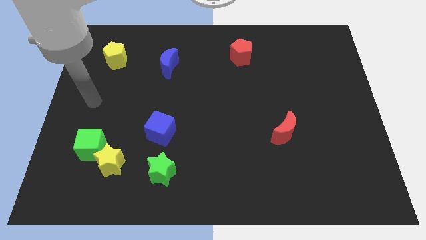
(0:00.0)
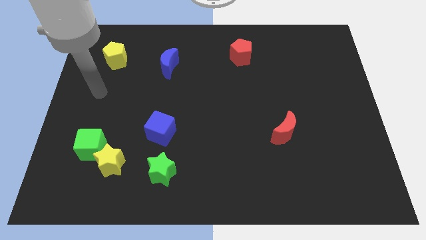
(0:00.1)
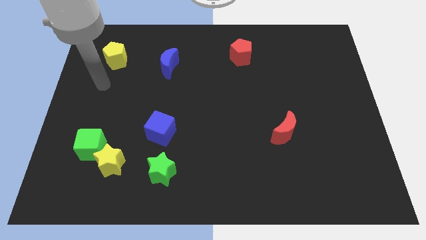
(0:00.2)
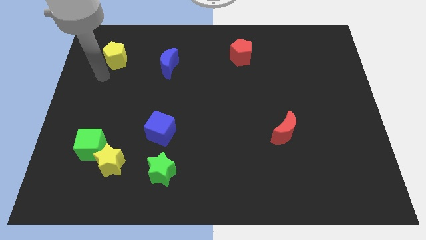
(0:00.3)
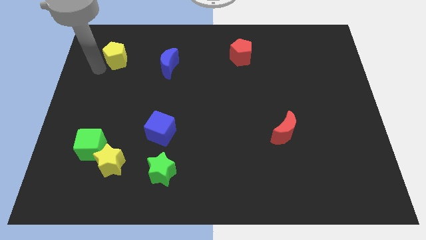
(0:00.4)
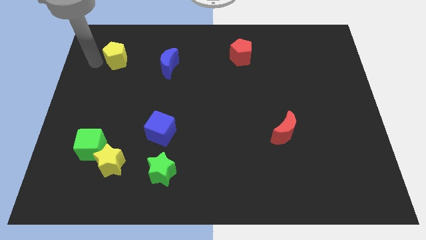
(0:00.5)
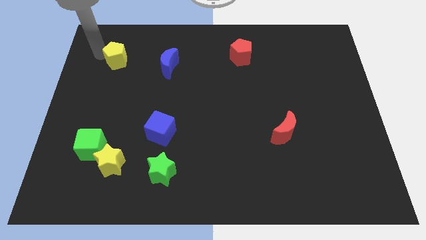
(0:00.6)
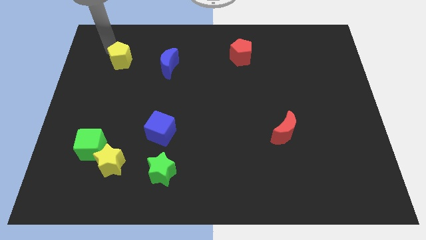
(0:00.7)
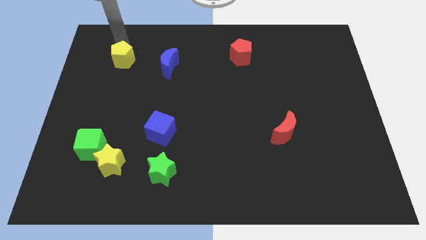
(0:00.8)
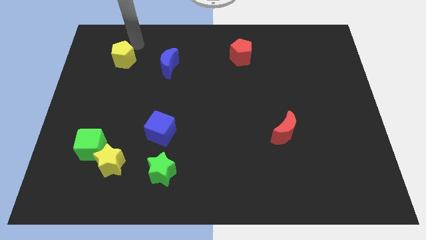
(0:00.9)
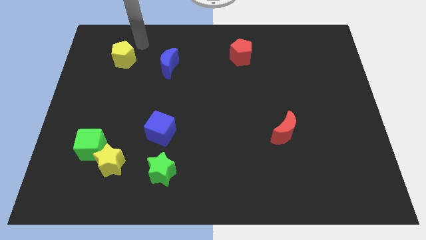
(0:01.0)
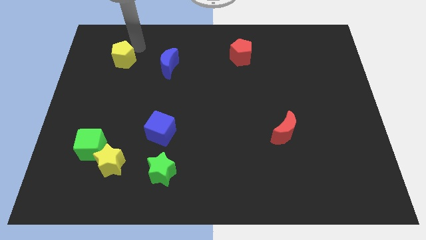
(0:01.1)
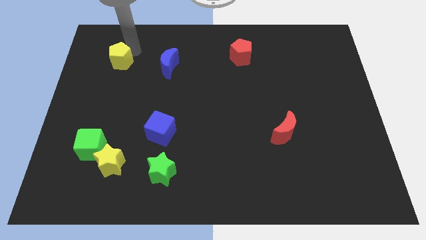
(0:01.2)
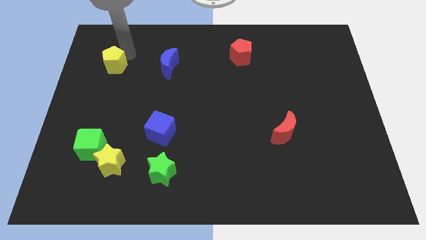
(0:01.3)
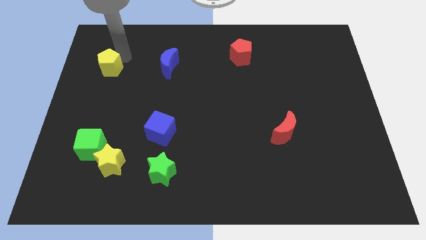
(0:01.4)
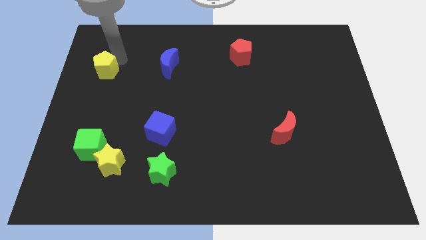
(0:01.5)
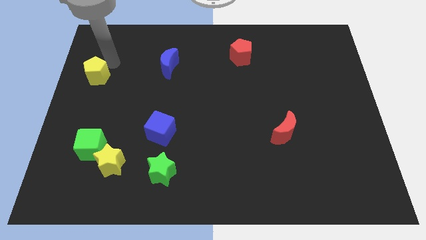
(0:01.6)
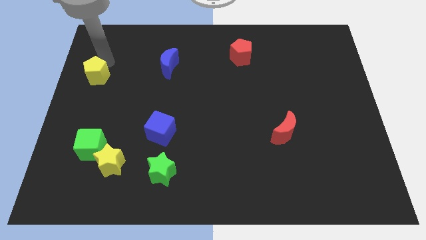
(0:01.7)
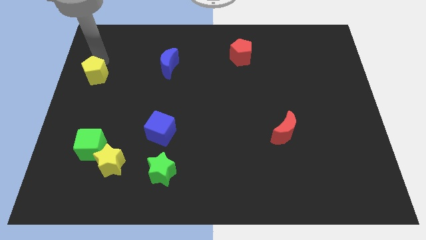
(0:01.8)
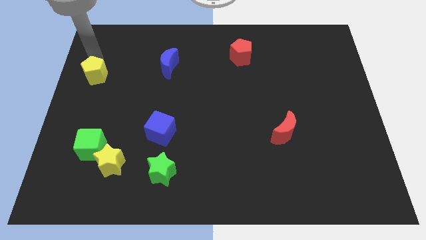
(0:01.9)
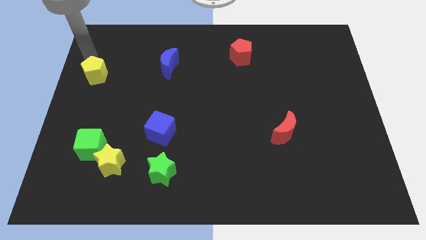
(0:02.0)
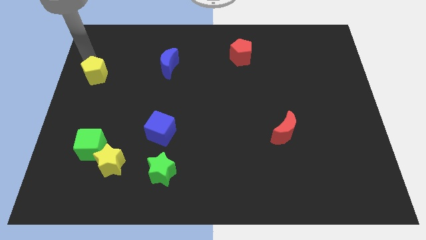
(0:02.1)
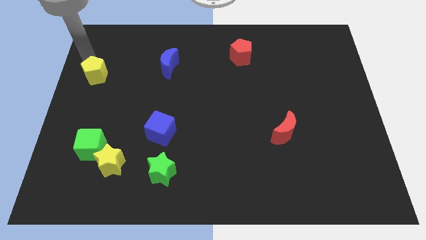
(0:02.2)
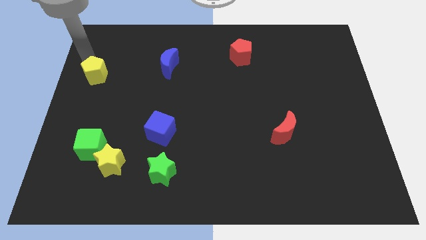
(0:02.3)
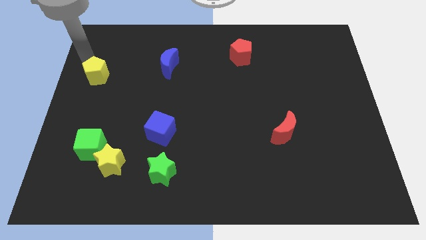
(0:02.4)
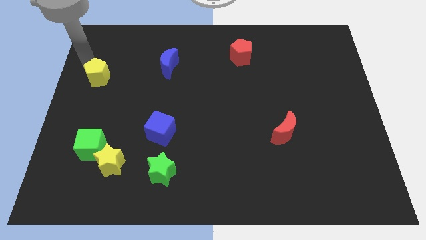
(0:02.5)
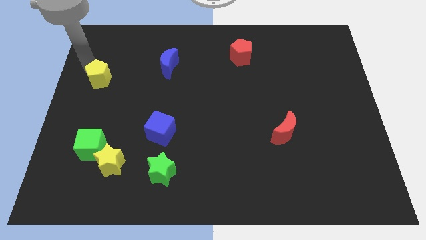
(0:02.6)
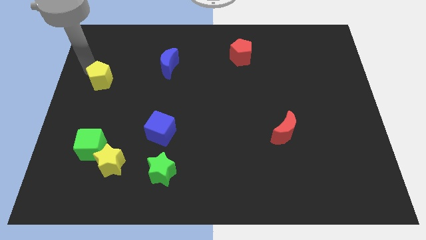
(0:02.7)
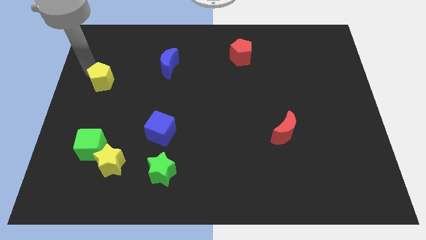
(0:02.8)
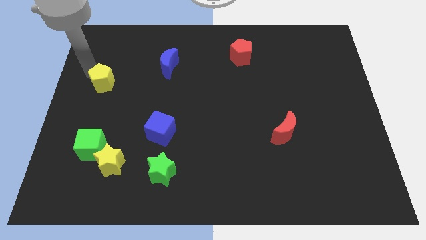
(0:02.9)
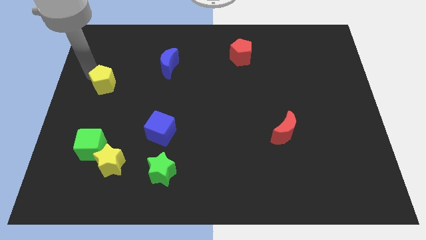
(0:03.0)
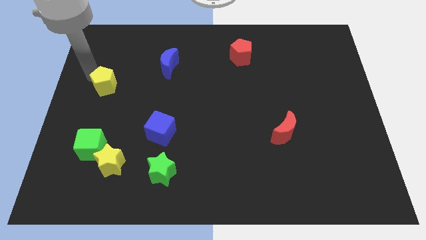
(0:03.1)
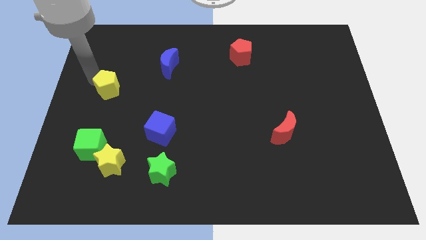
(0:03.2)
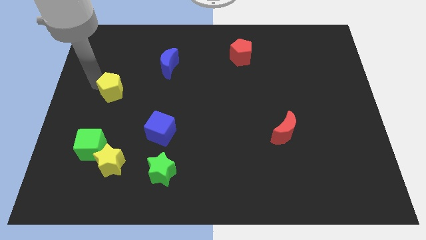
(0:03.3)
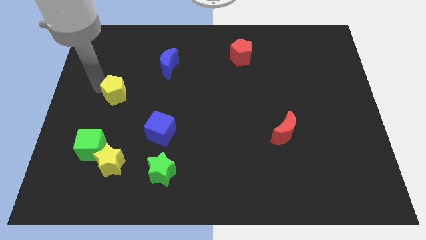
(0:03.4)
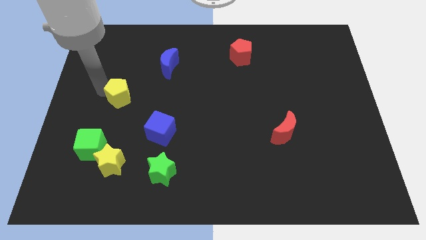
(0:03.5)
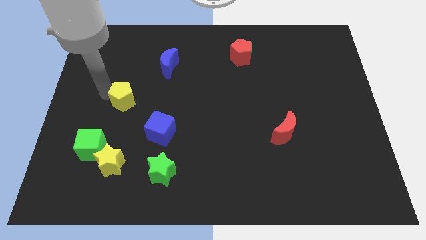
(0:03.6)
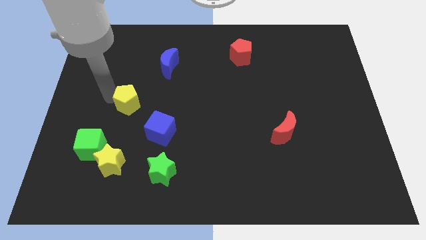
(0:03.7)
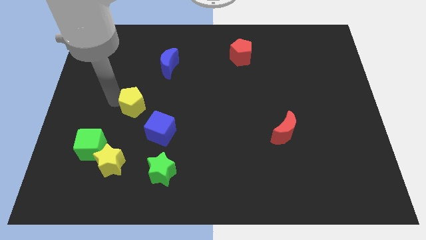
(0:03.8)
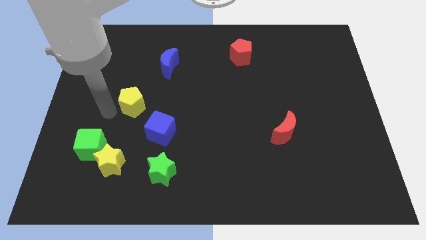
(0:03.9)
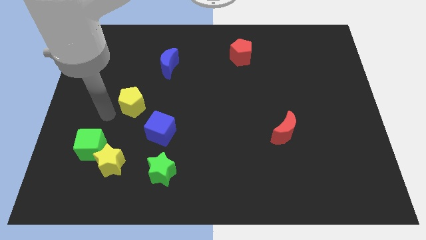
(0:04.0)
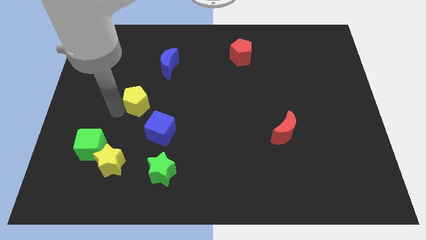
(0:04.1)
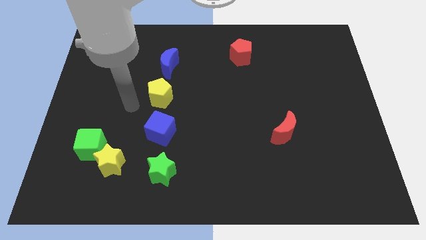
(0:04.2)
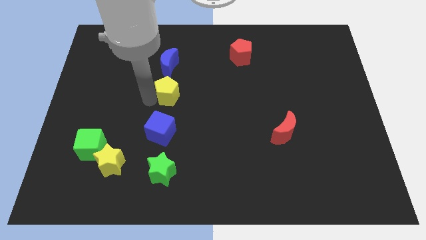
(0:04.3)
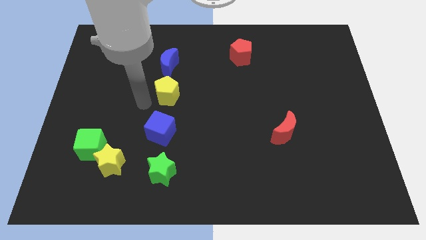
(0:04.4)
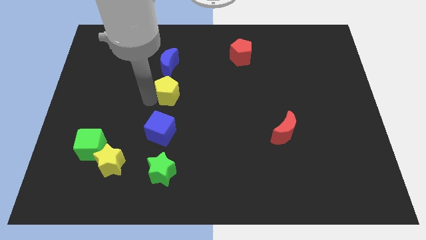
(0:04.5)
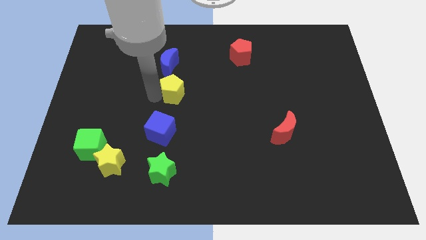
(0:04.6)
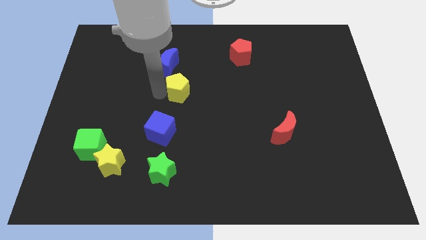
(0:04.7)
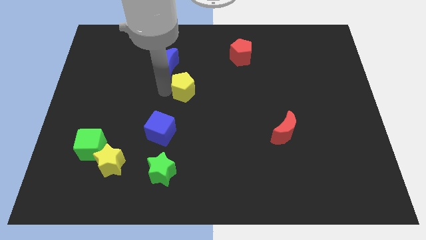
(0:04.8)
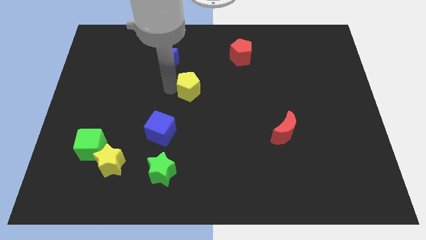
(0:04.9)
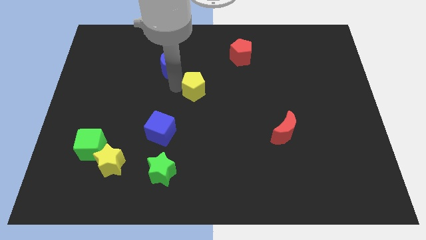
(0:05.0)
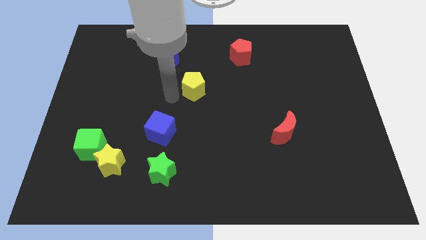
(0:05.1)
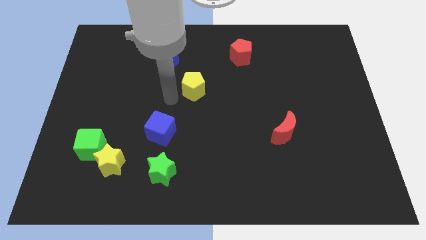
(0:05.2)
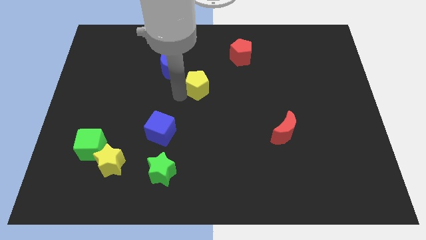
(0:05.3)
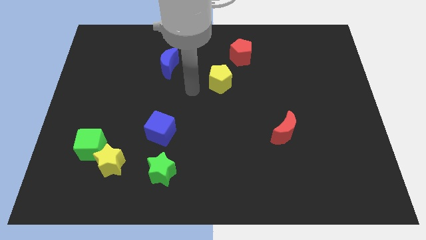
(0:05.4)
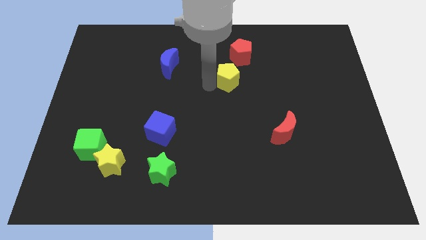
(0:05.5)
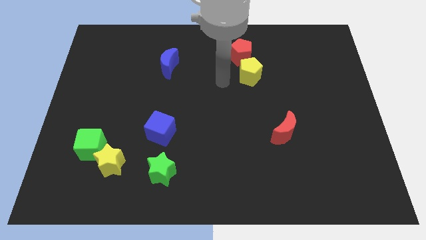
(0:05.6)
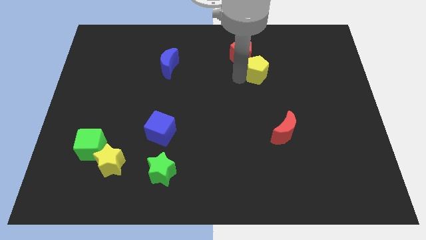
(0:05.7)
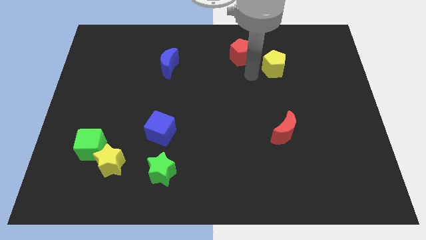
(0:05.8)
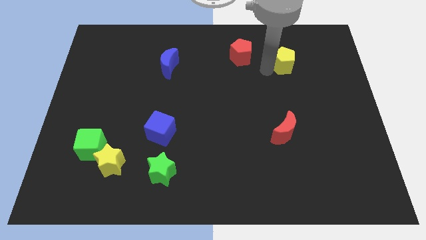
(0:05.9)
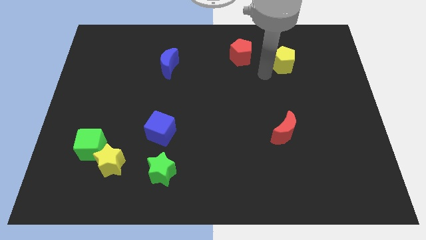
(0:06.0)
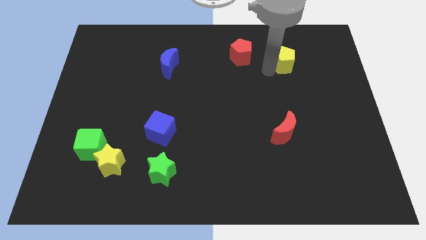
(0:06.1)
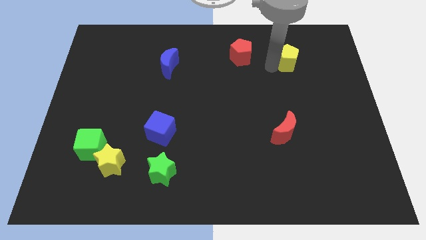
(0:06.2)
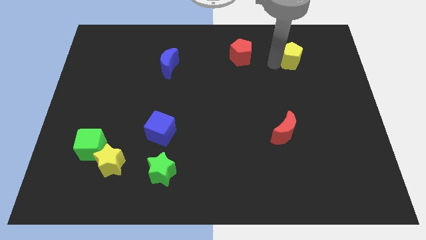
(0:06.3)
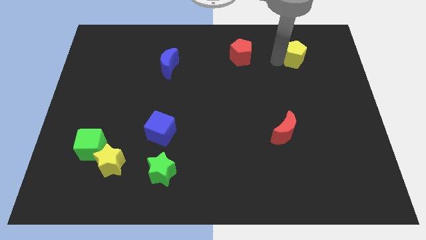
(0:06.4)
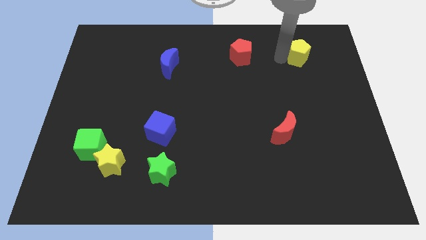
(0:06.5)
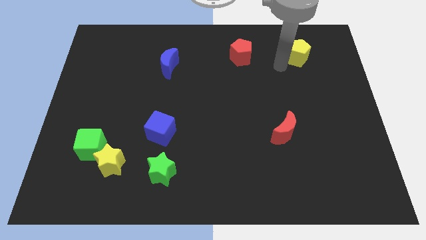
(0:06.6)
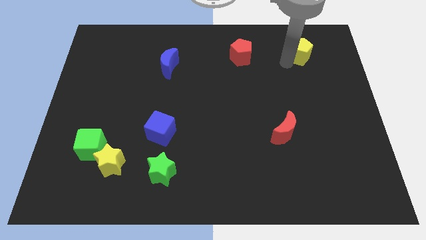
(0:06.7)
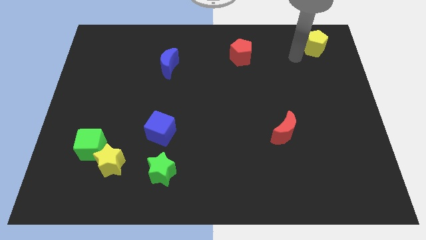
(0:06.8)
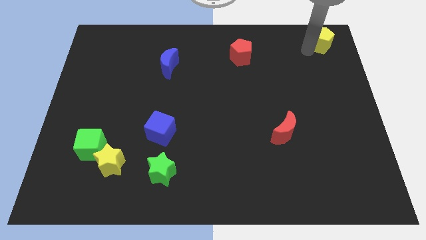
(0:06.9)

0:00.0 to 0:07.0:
push the yellow pentagon to the top right
